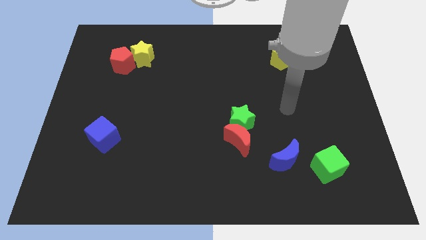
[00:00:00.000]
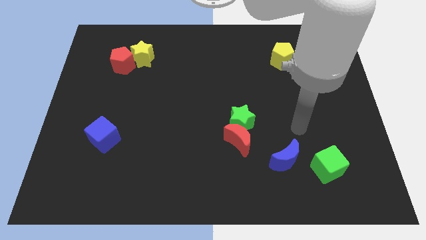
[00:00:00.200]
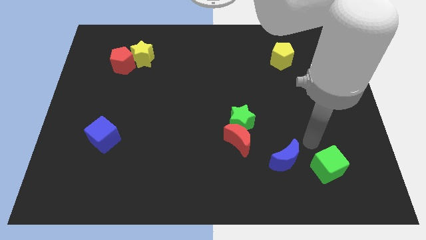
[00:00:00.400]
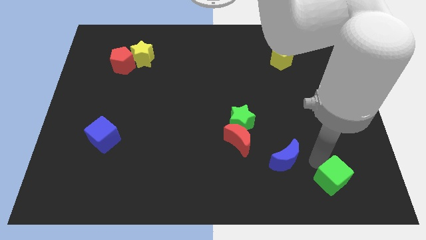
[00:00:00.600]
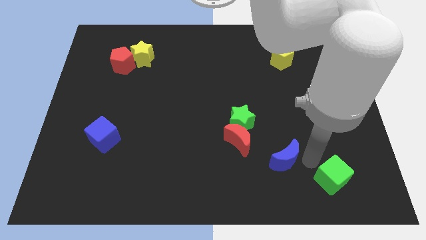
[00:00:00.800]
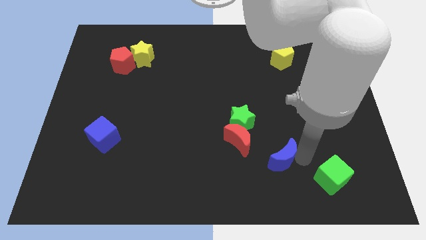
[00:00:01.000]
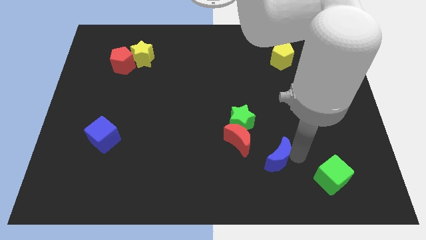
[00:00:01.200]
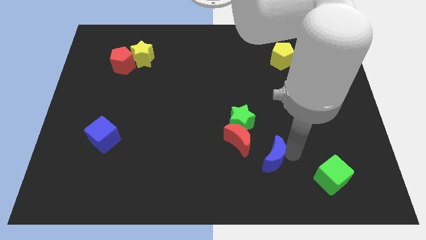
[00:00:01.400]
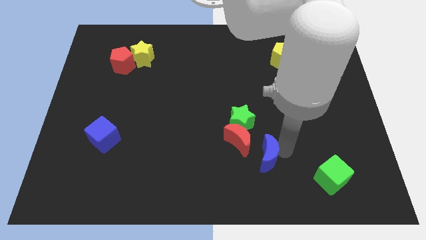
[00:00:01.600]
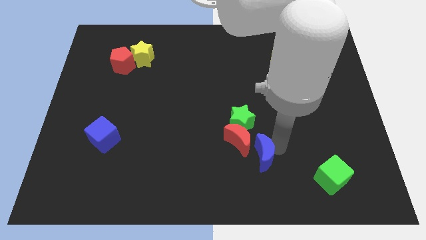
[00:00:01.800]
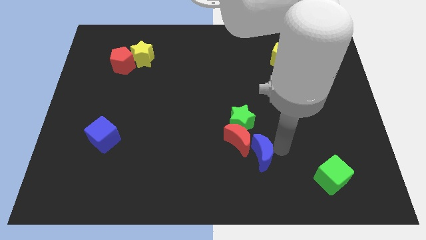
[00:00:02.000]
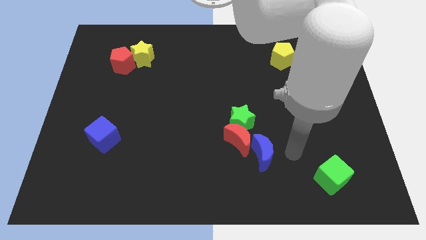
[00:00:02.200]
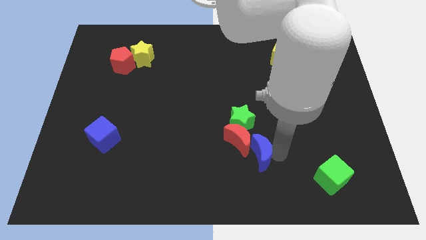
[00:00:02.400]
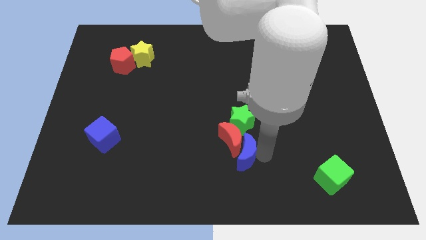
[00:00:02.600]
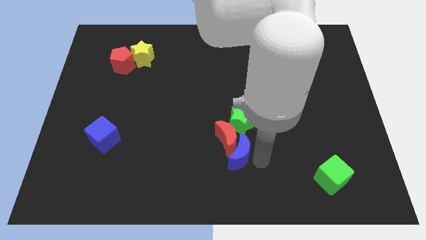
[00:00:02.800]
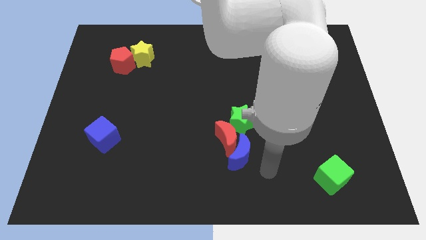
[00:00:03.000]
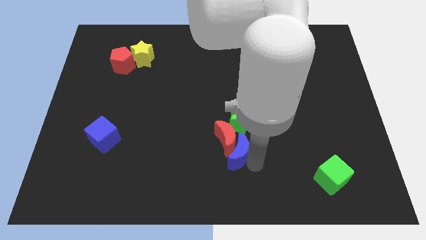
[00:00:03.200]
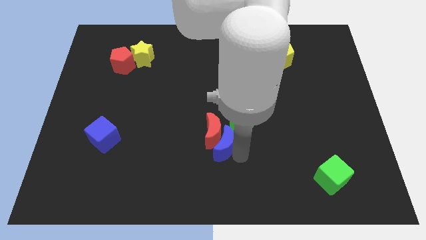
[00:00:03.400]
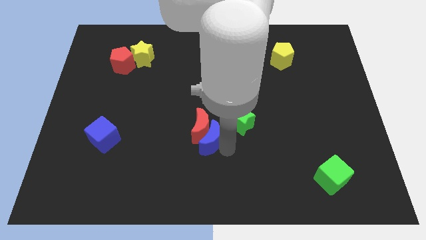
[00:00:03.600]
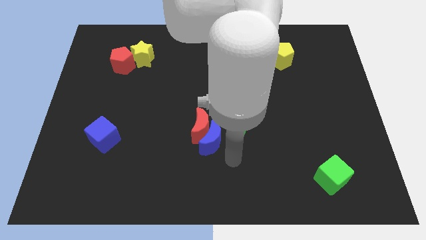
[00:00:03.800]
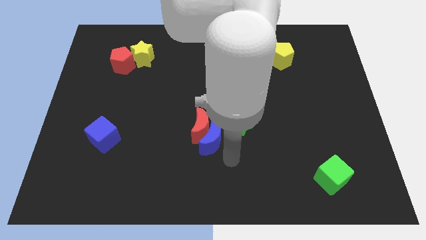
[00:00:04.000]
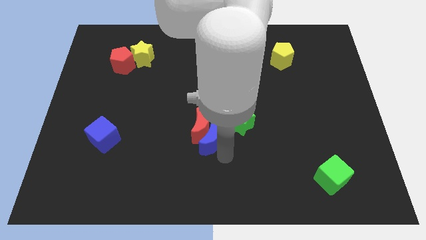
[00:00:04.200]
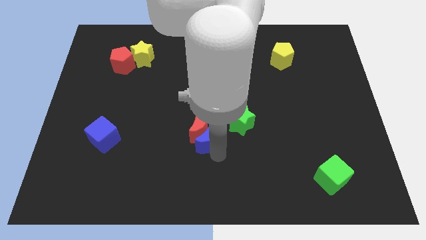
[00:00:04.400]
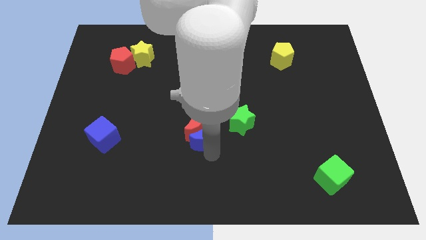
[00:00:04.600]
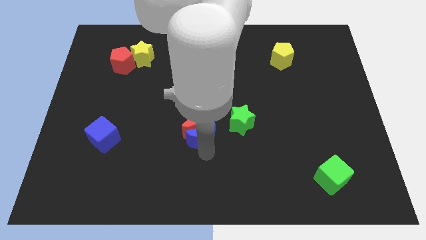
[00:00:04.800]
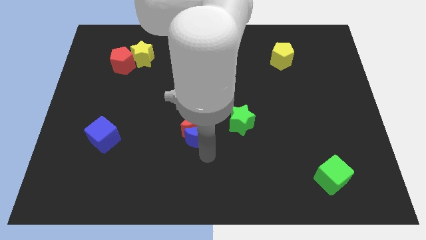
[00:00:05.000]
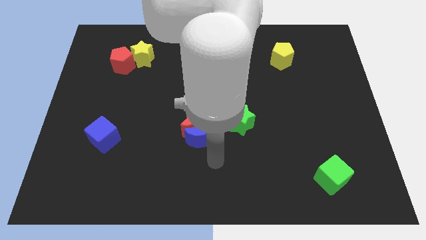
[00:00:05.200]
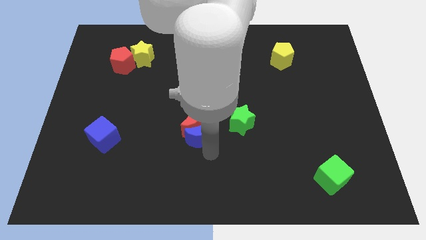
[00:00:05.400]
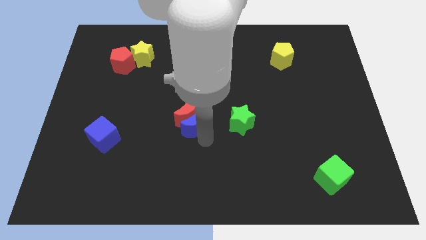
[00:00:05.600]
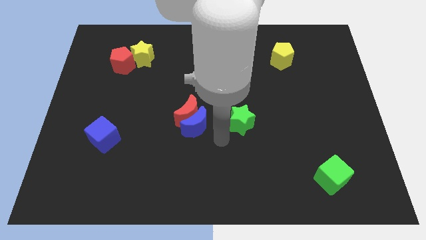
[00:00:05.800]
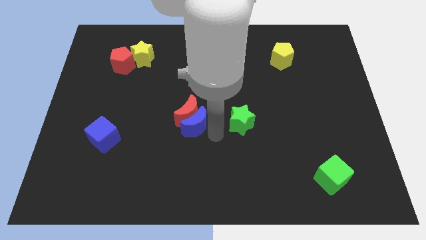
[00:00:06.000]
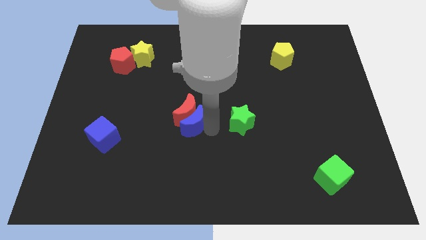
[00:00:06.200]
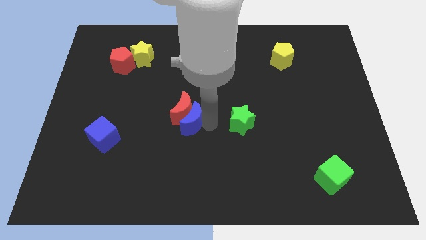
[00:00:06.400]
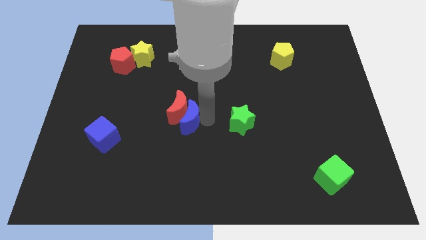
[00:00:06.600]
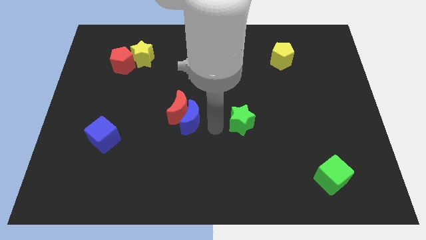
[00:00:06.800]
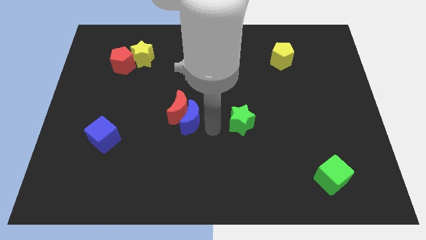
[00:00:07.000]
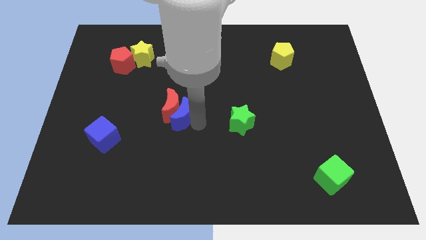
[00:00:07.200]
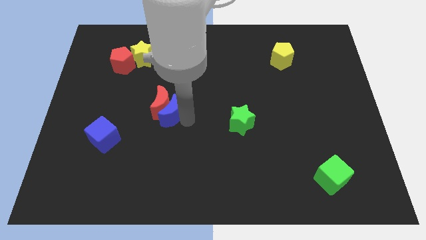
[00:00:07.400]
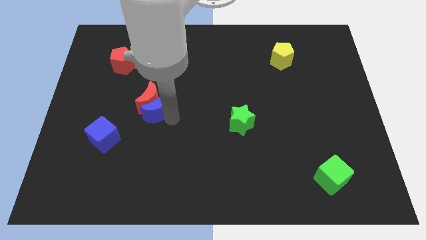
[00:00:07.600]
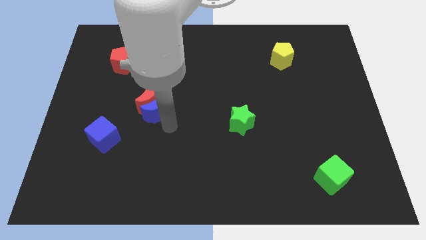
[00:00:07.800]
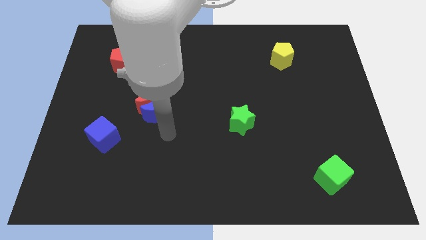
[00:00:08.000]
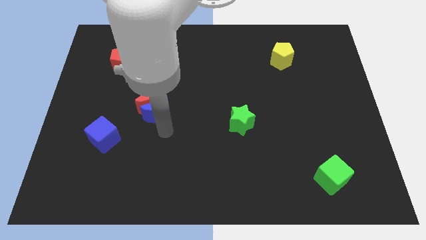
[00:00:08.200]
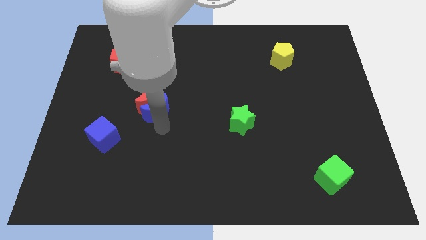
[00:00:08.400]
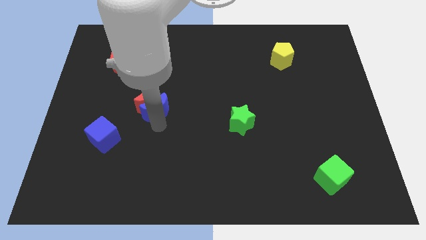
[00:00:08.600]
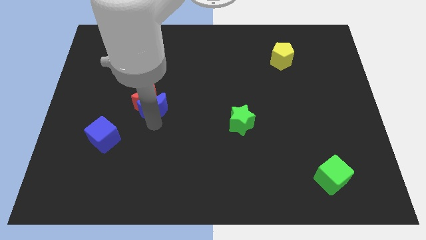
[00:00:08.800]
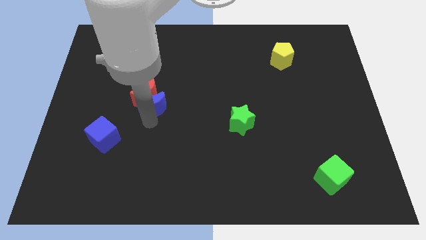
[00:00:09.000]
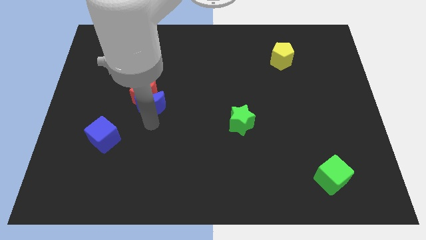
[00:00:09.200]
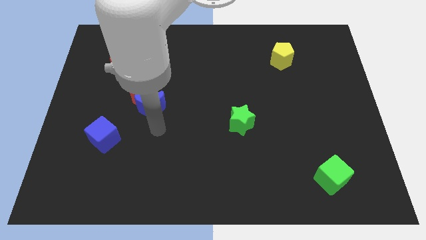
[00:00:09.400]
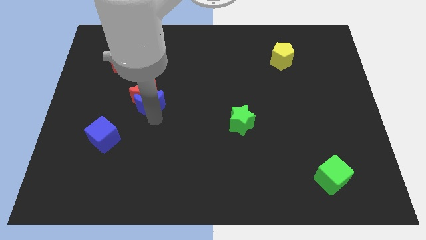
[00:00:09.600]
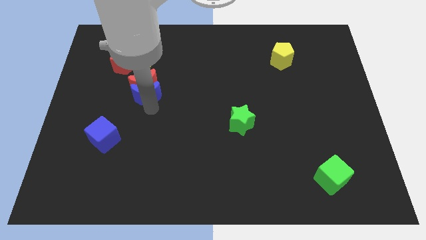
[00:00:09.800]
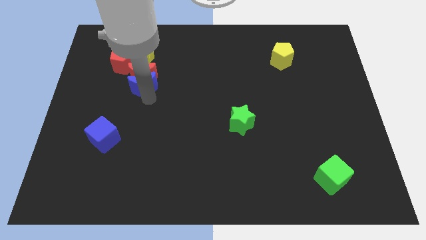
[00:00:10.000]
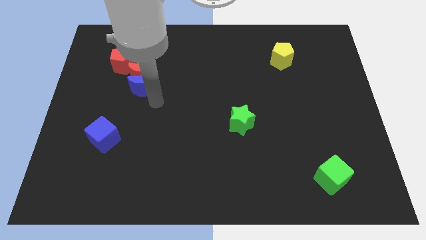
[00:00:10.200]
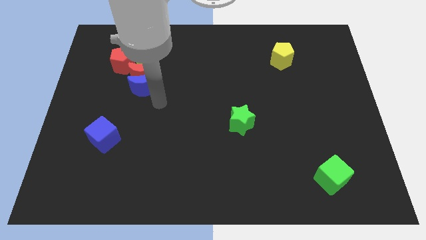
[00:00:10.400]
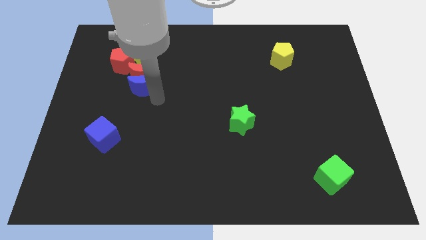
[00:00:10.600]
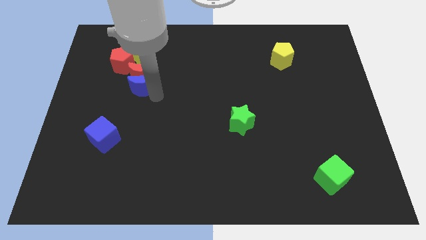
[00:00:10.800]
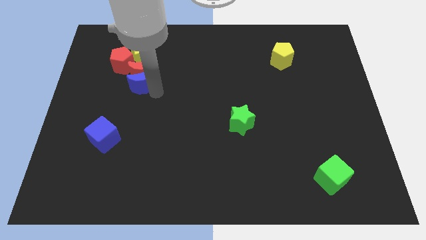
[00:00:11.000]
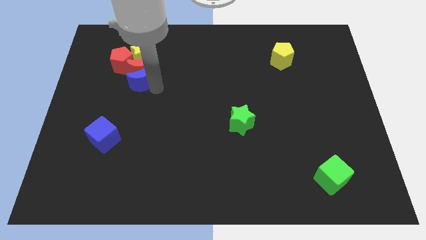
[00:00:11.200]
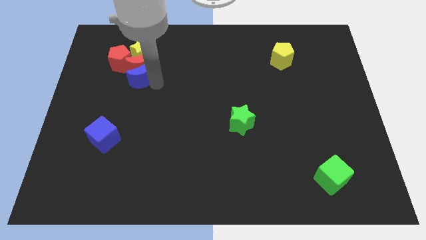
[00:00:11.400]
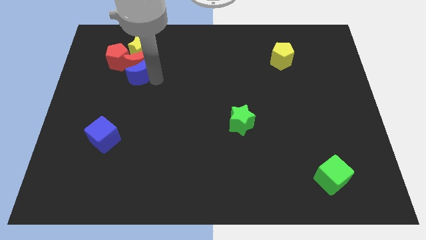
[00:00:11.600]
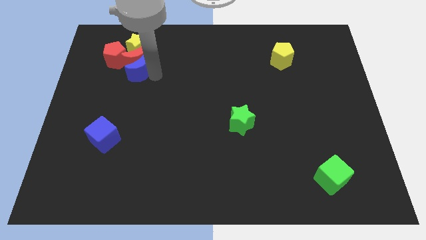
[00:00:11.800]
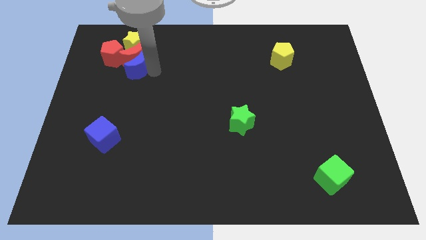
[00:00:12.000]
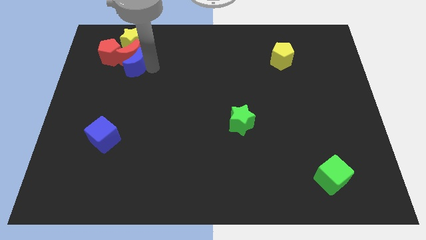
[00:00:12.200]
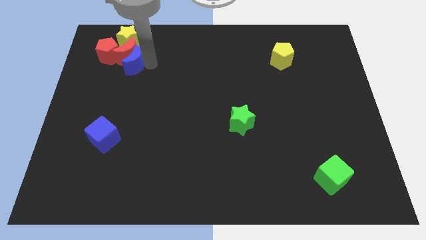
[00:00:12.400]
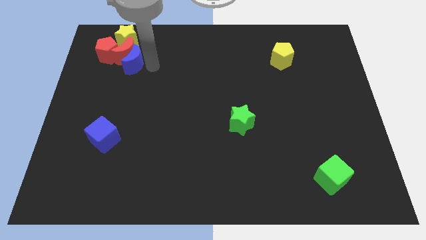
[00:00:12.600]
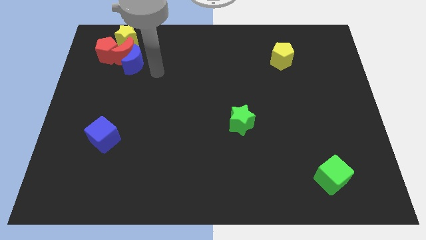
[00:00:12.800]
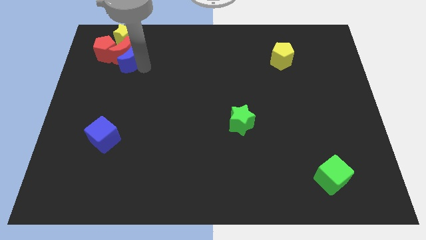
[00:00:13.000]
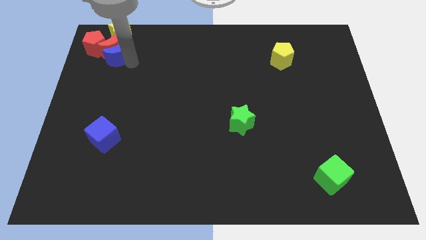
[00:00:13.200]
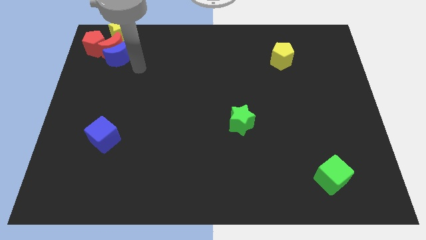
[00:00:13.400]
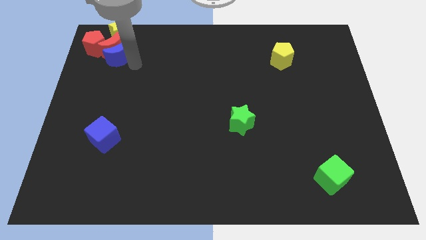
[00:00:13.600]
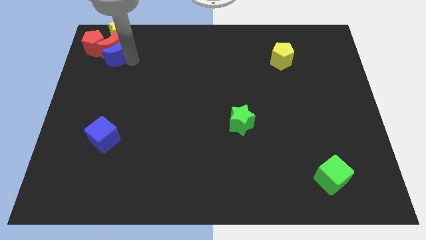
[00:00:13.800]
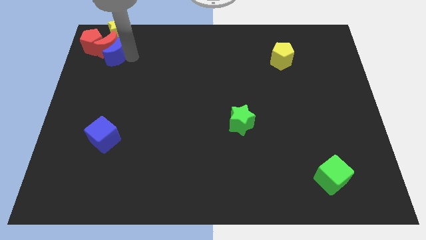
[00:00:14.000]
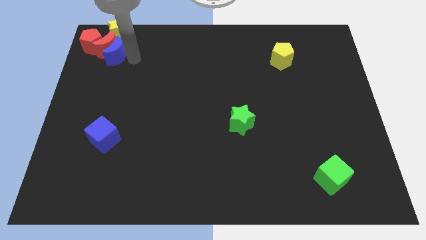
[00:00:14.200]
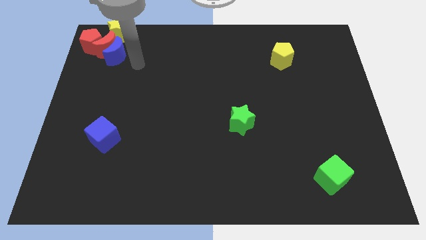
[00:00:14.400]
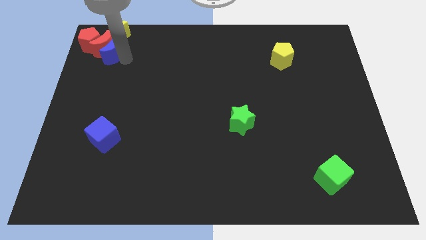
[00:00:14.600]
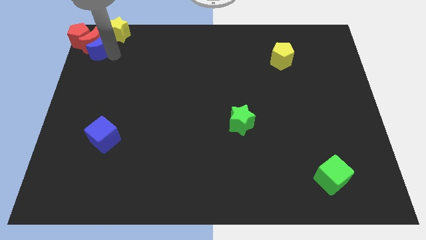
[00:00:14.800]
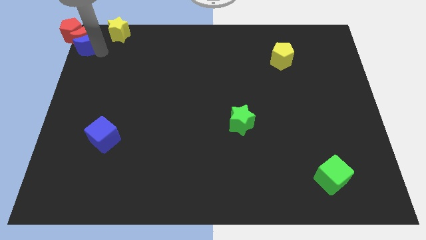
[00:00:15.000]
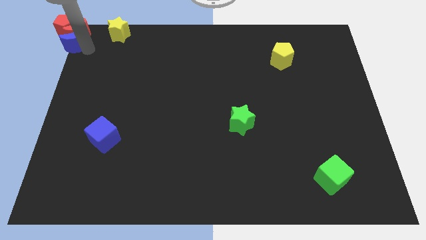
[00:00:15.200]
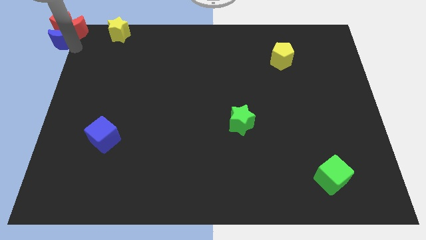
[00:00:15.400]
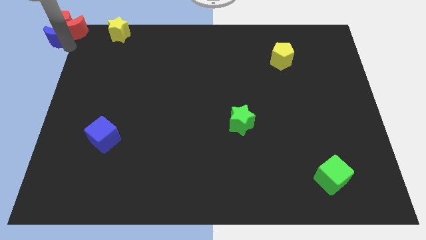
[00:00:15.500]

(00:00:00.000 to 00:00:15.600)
move the blue moon to the red pentagon

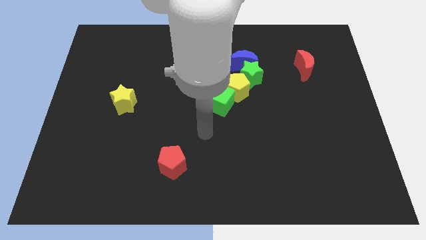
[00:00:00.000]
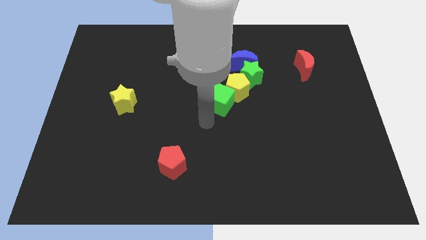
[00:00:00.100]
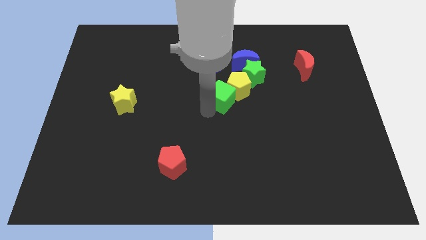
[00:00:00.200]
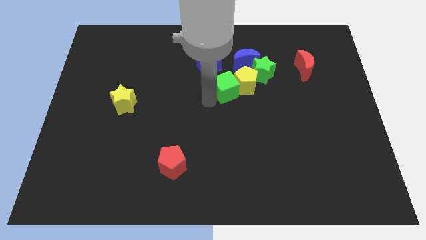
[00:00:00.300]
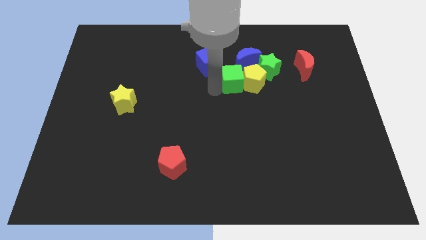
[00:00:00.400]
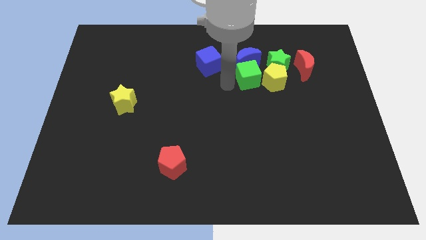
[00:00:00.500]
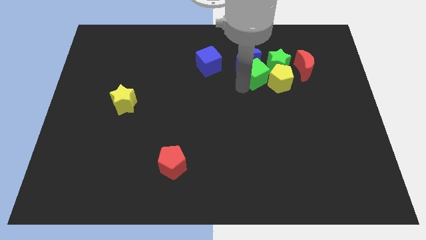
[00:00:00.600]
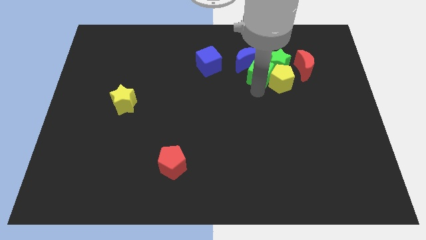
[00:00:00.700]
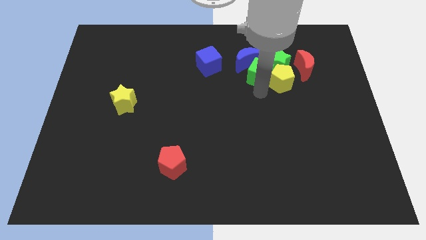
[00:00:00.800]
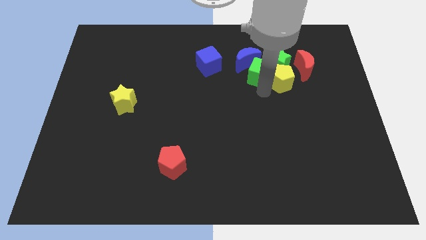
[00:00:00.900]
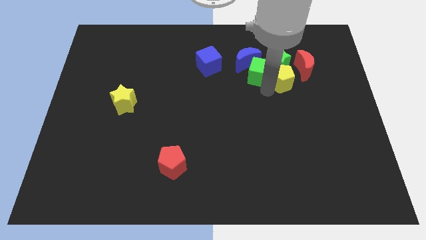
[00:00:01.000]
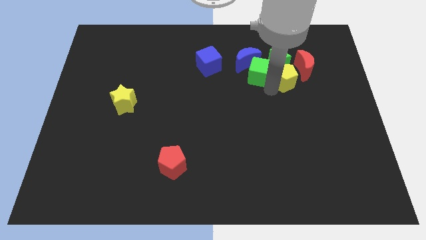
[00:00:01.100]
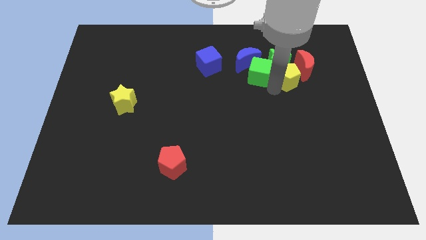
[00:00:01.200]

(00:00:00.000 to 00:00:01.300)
push the yellow pentagon to the red moon
